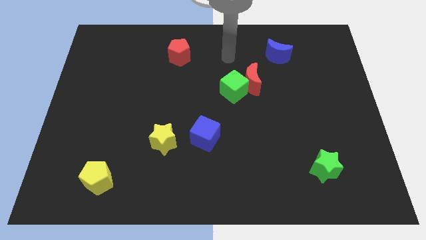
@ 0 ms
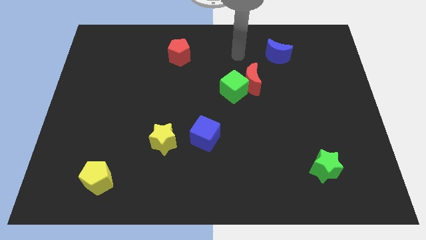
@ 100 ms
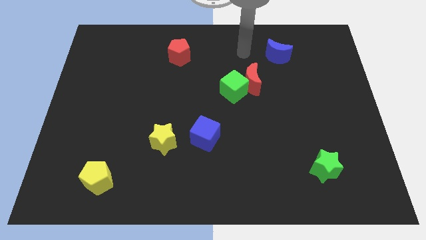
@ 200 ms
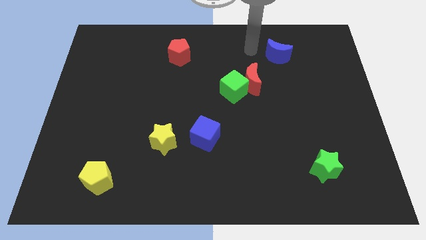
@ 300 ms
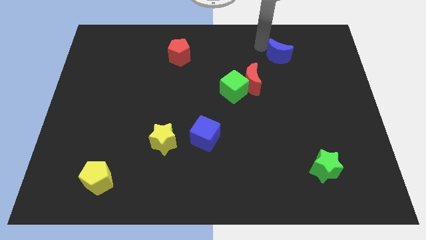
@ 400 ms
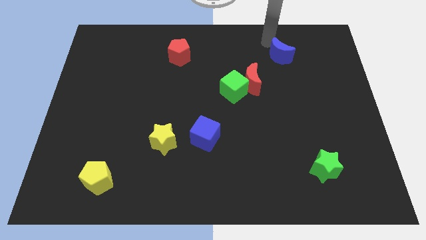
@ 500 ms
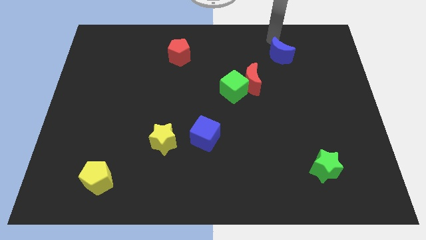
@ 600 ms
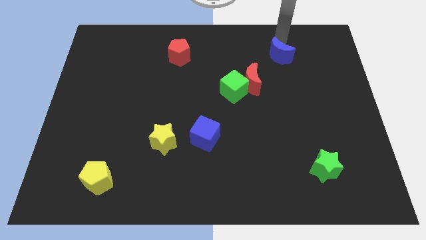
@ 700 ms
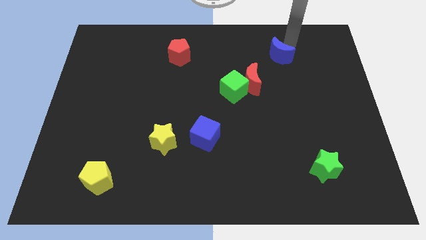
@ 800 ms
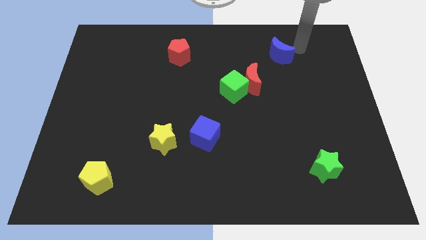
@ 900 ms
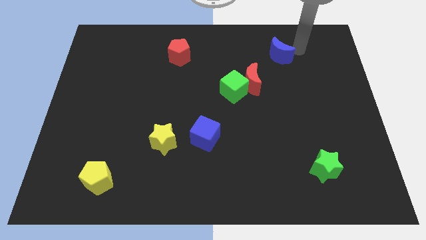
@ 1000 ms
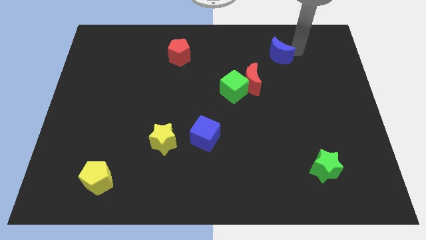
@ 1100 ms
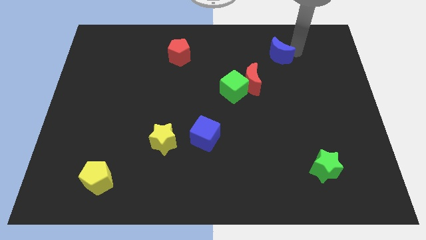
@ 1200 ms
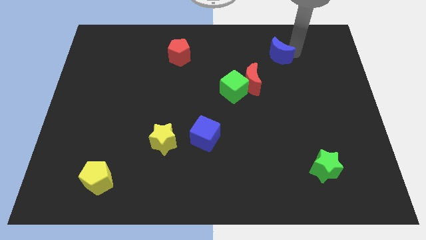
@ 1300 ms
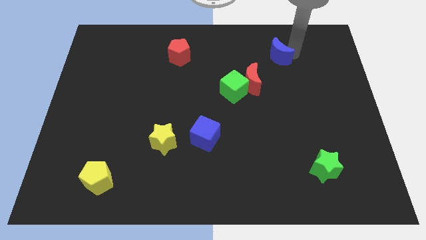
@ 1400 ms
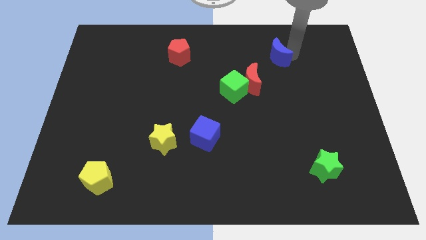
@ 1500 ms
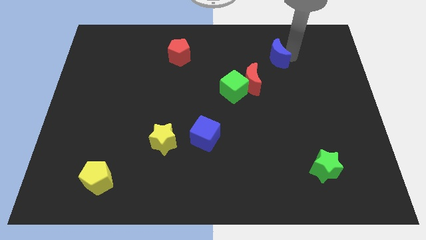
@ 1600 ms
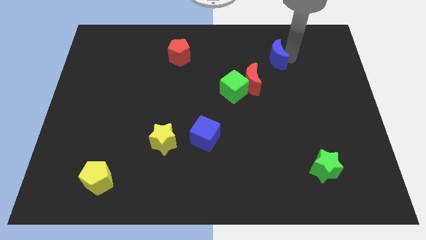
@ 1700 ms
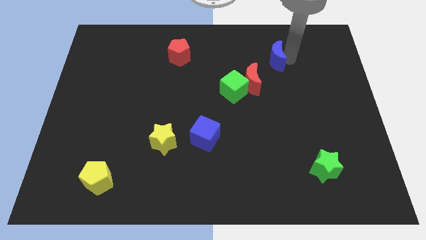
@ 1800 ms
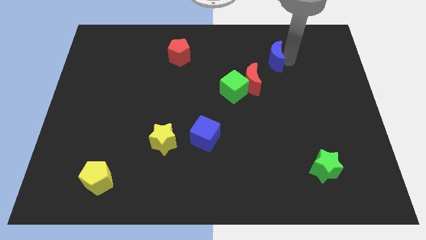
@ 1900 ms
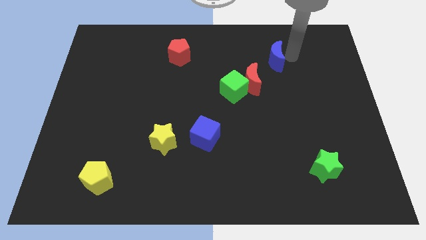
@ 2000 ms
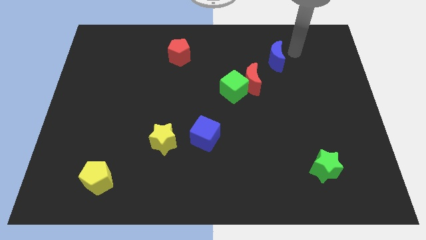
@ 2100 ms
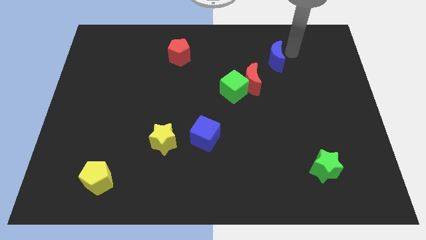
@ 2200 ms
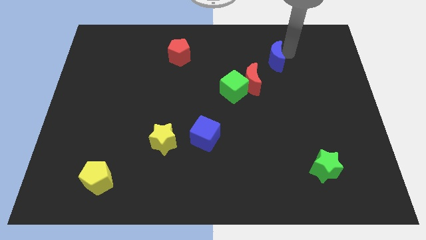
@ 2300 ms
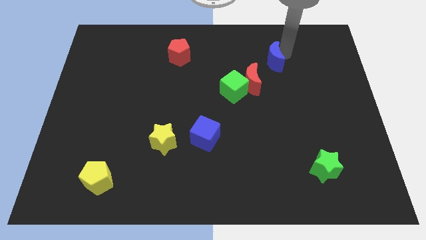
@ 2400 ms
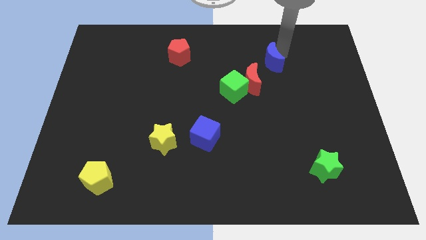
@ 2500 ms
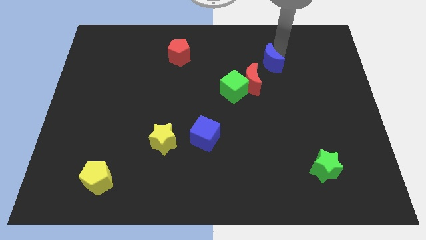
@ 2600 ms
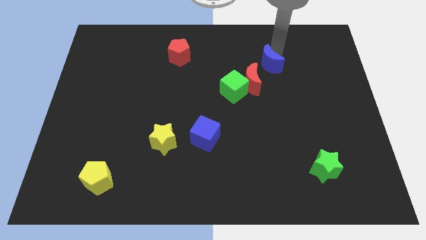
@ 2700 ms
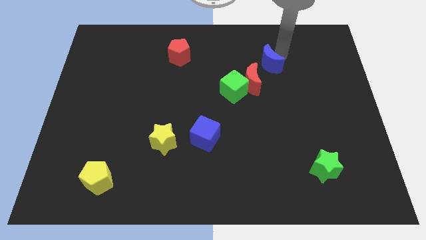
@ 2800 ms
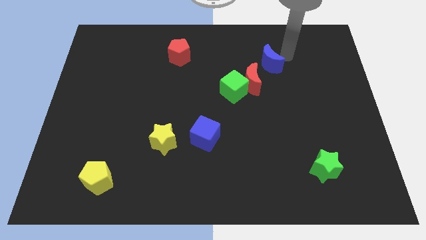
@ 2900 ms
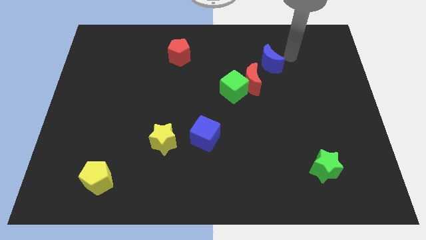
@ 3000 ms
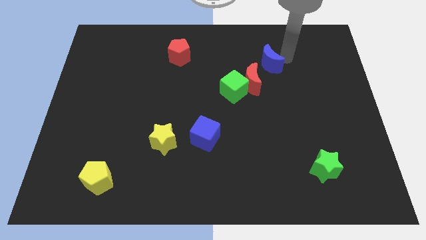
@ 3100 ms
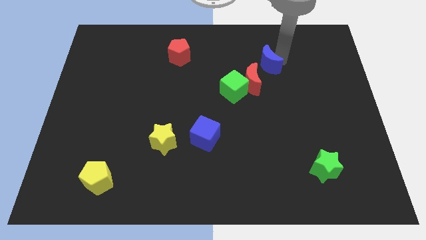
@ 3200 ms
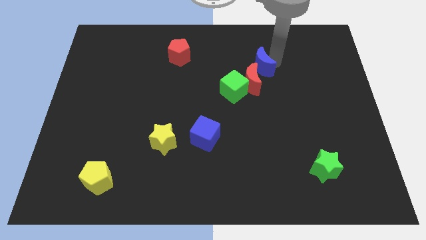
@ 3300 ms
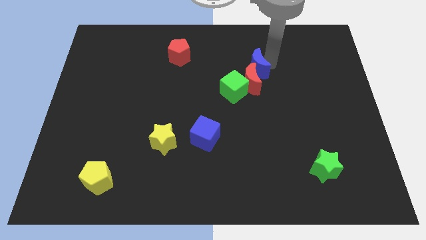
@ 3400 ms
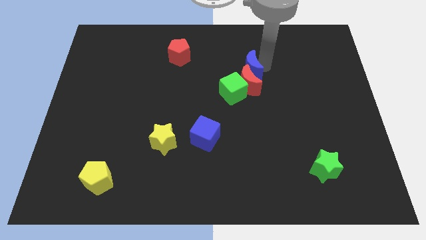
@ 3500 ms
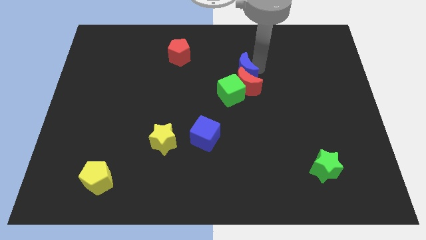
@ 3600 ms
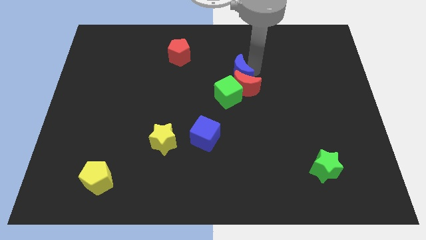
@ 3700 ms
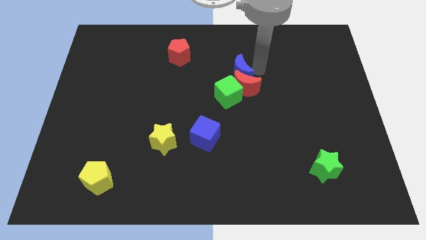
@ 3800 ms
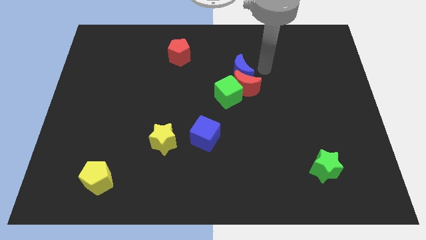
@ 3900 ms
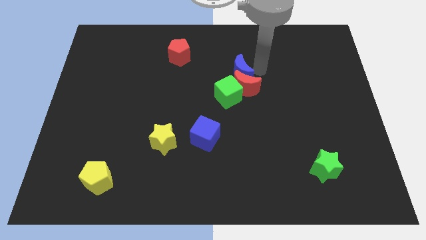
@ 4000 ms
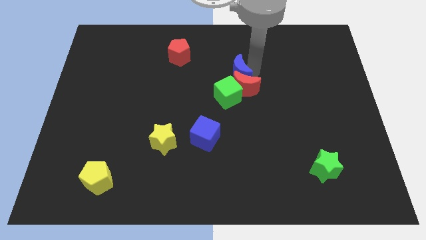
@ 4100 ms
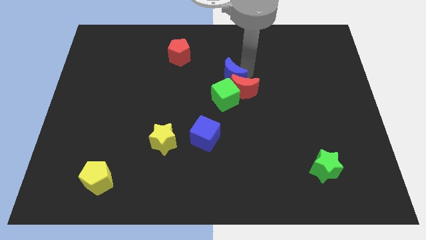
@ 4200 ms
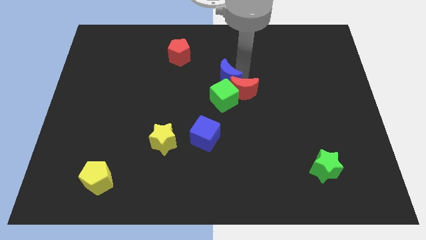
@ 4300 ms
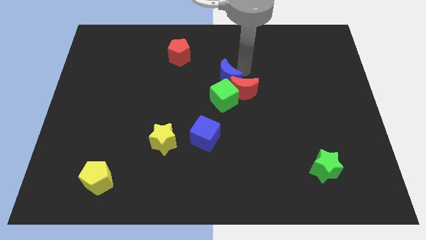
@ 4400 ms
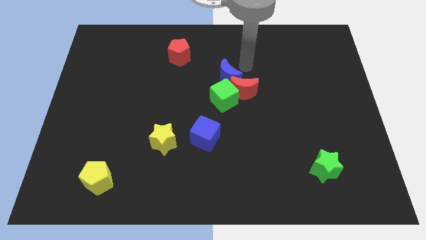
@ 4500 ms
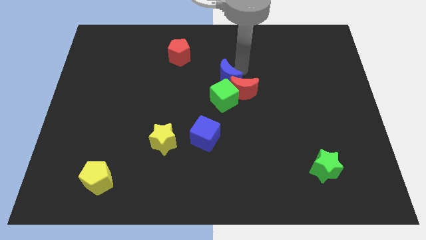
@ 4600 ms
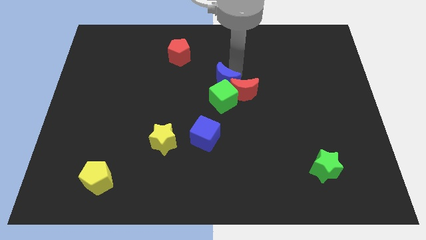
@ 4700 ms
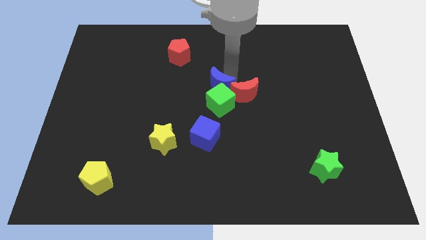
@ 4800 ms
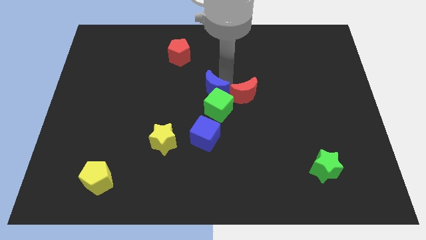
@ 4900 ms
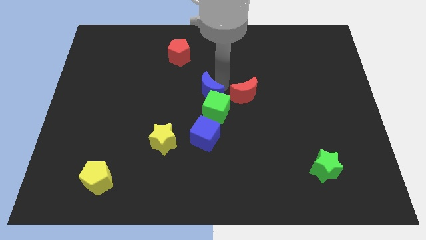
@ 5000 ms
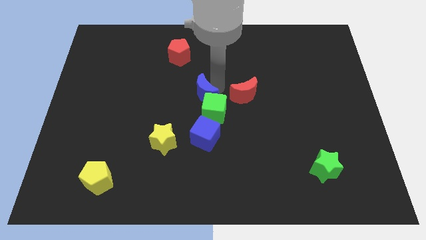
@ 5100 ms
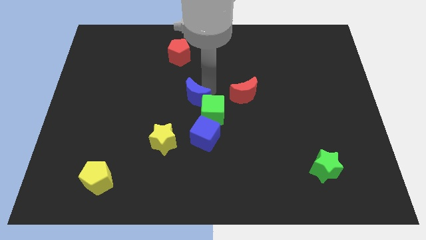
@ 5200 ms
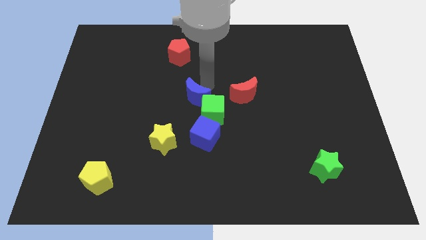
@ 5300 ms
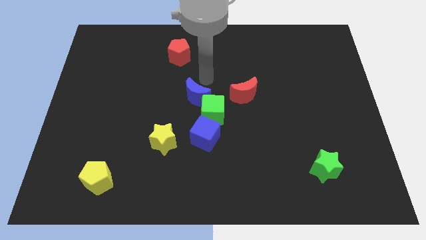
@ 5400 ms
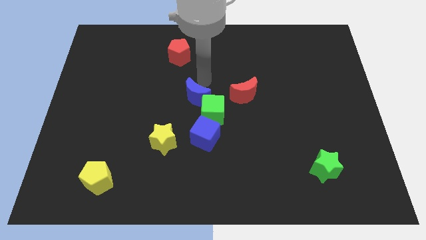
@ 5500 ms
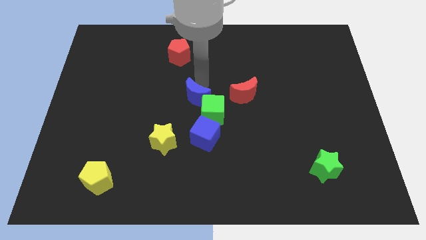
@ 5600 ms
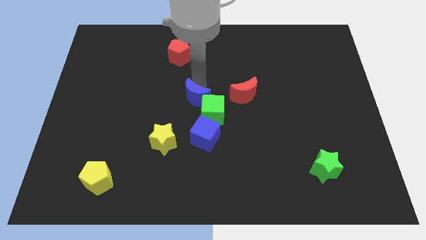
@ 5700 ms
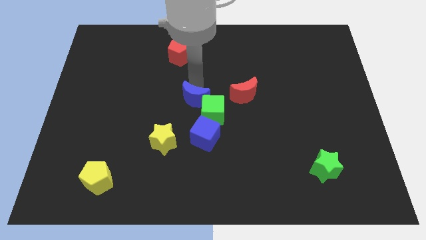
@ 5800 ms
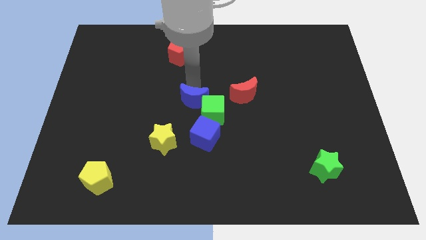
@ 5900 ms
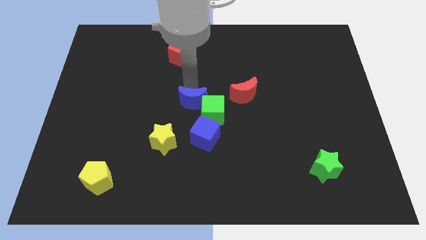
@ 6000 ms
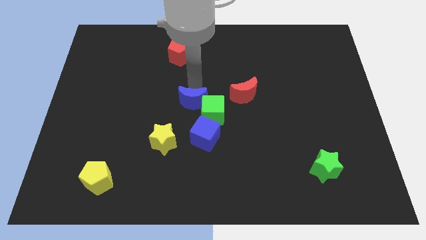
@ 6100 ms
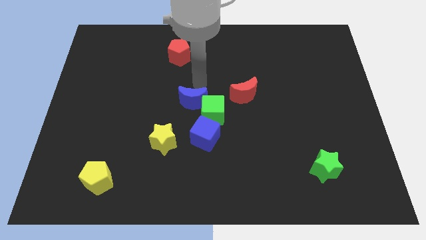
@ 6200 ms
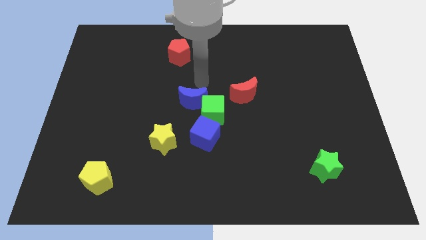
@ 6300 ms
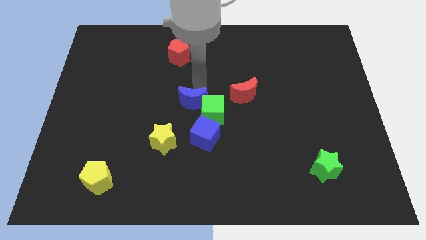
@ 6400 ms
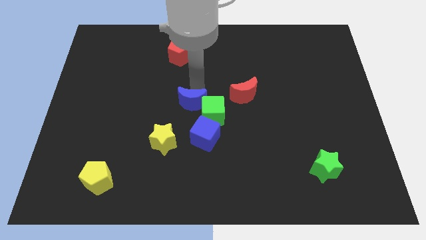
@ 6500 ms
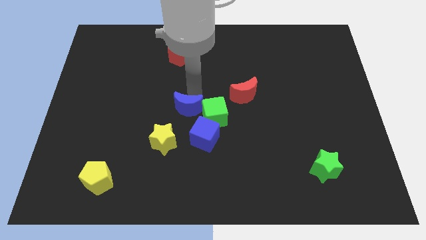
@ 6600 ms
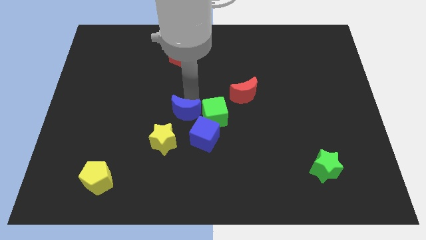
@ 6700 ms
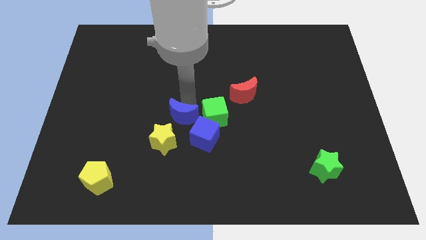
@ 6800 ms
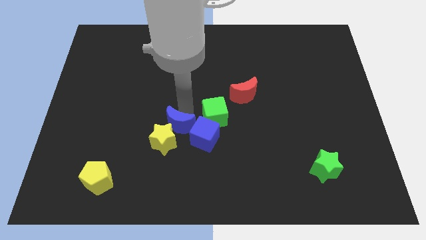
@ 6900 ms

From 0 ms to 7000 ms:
push the blue moon next to the yellow star

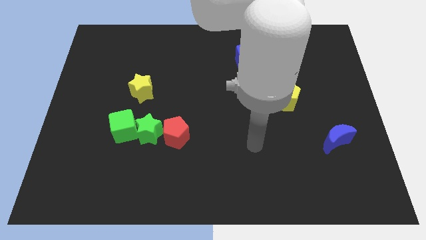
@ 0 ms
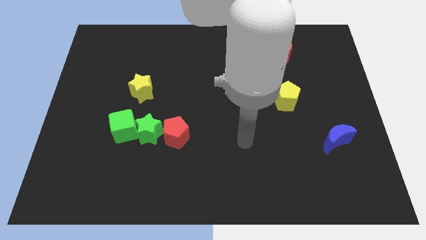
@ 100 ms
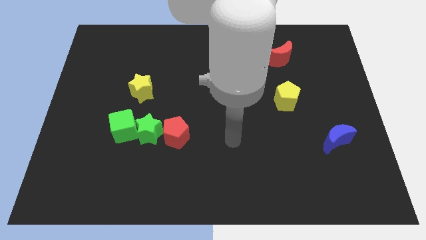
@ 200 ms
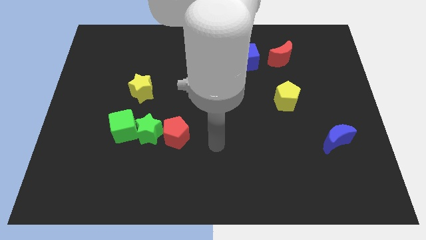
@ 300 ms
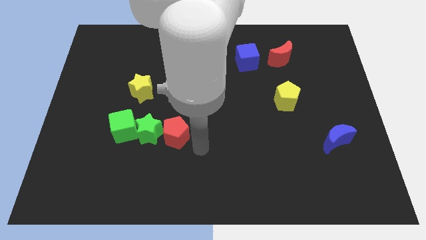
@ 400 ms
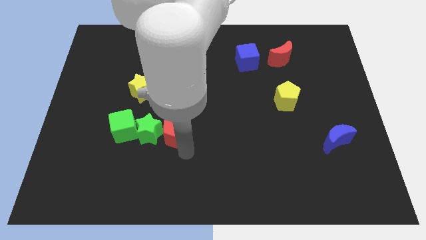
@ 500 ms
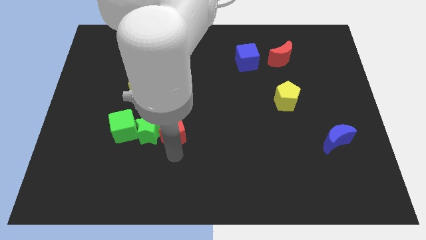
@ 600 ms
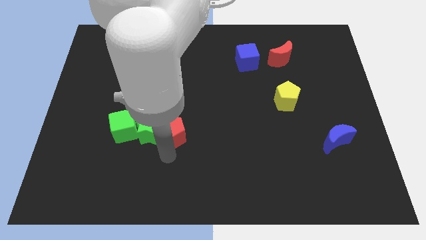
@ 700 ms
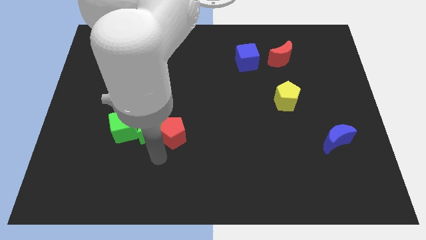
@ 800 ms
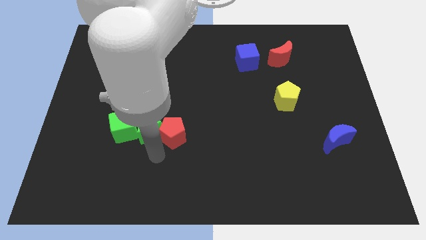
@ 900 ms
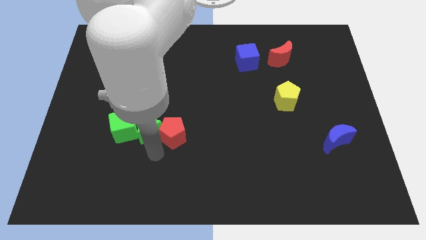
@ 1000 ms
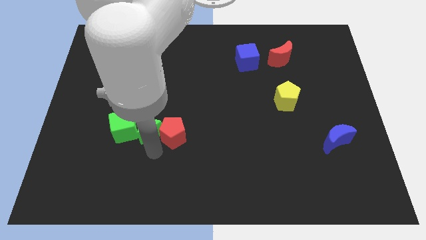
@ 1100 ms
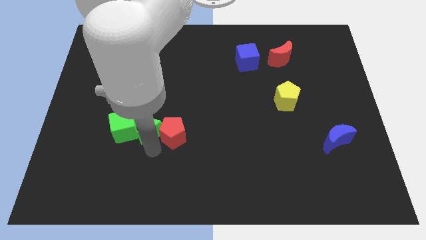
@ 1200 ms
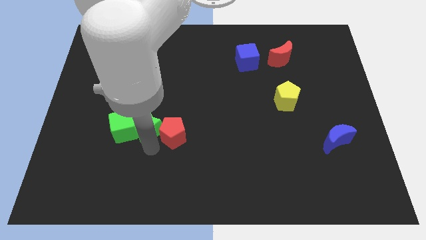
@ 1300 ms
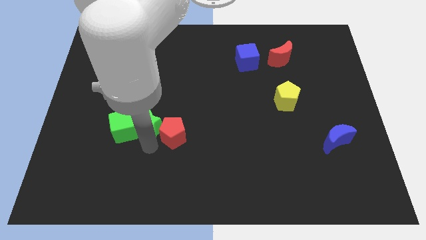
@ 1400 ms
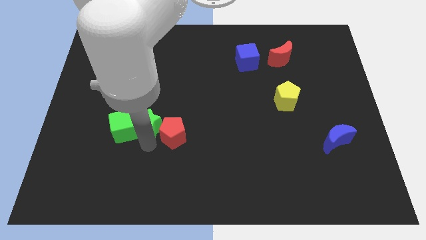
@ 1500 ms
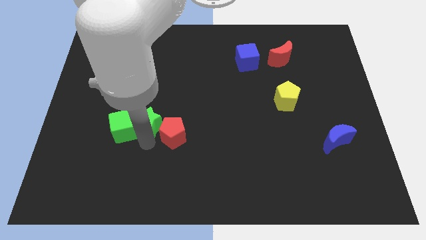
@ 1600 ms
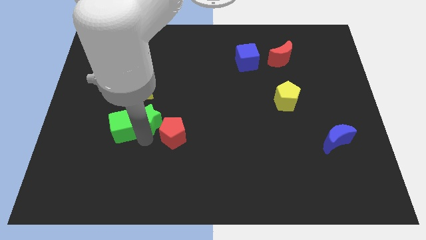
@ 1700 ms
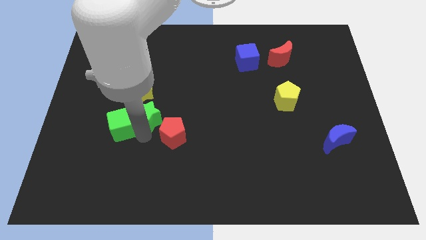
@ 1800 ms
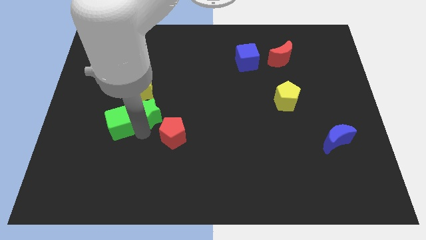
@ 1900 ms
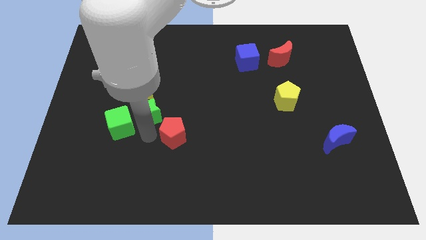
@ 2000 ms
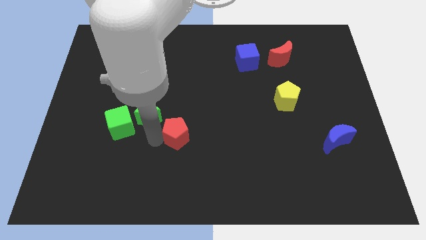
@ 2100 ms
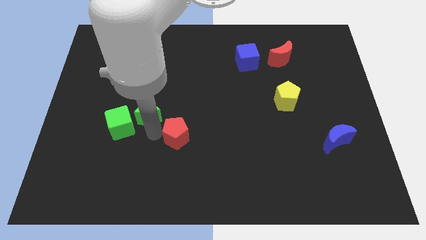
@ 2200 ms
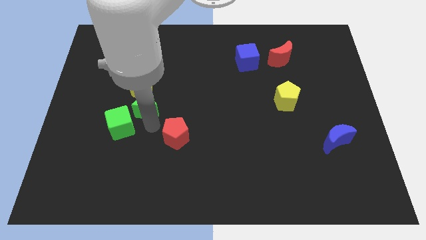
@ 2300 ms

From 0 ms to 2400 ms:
move the green star towards the yellow star
